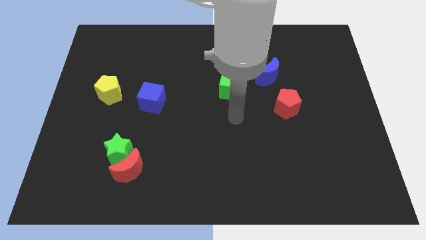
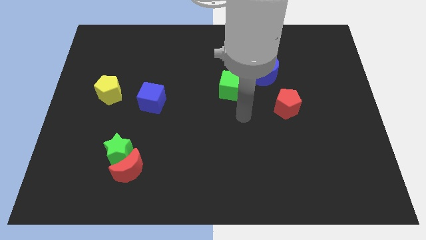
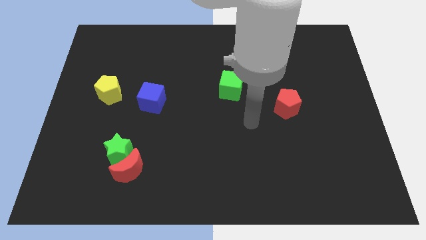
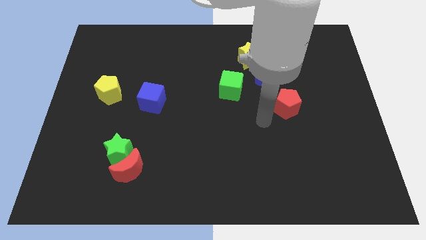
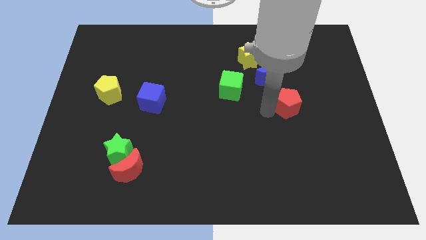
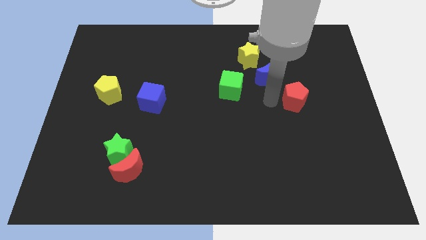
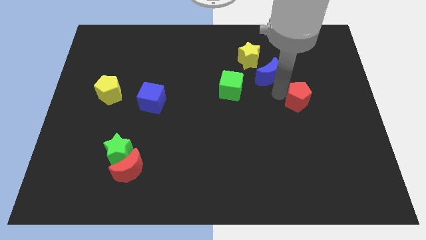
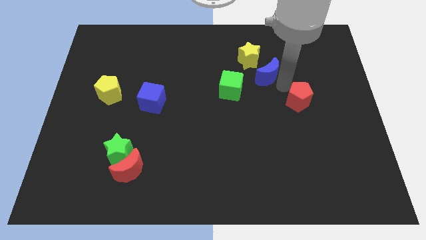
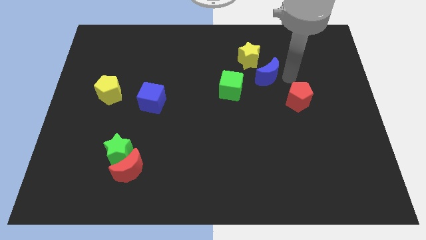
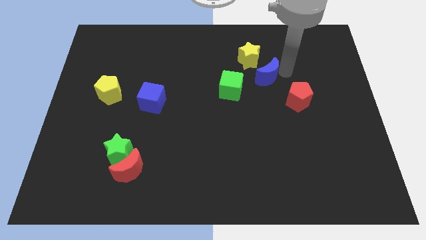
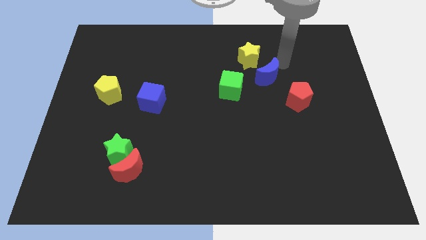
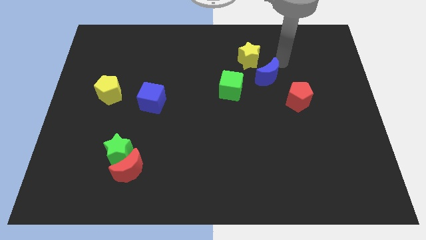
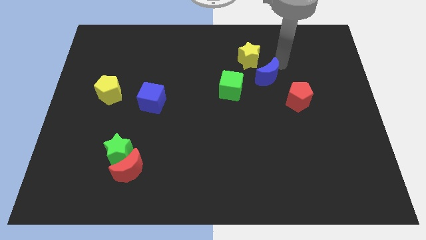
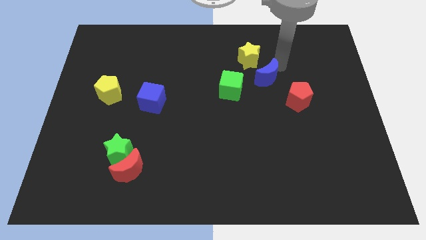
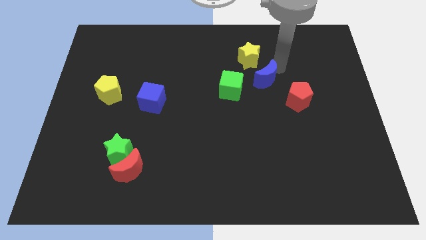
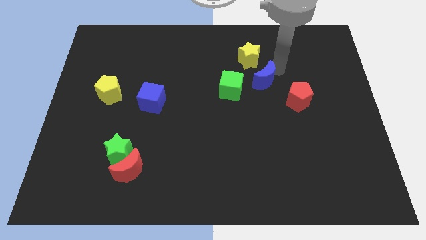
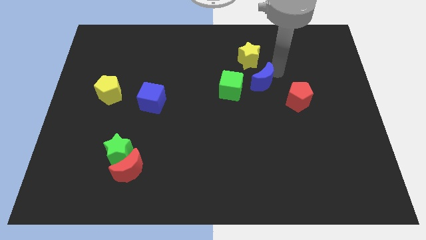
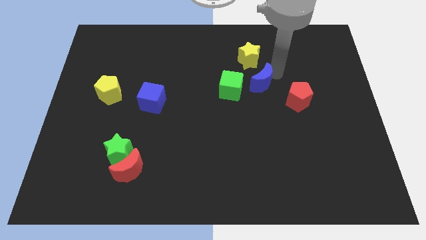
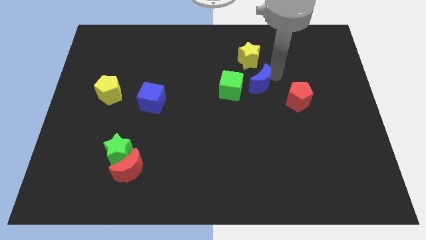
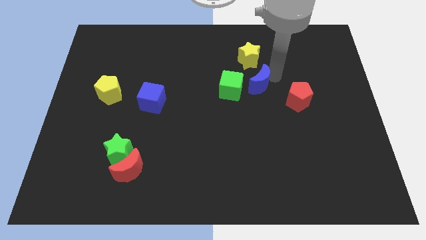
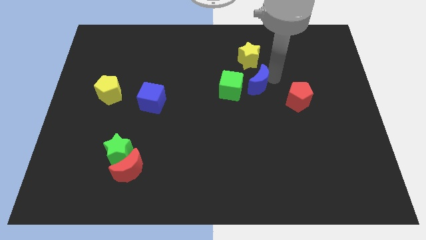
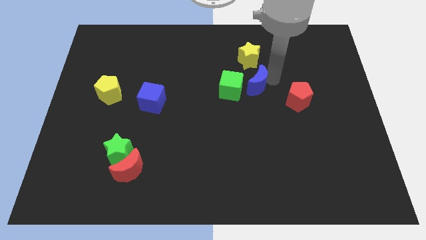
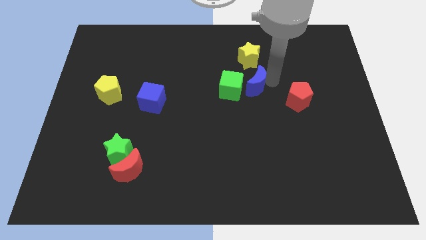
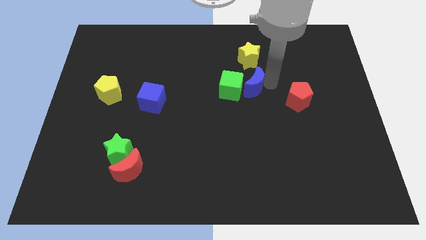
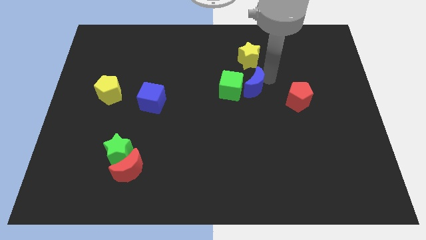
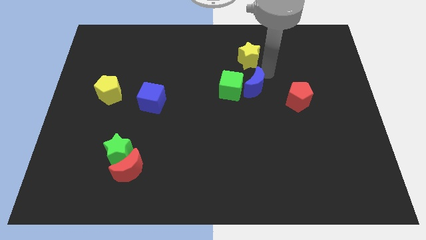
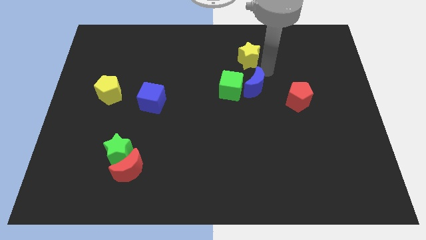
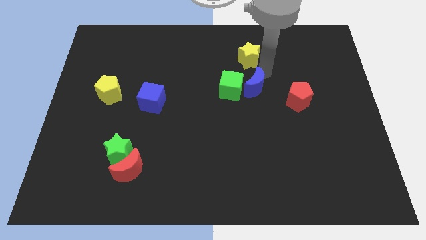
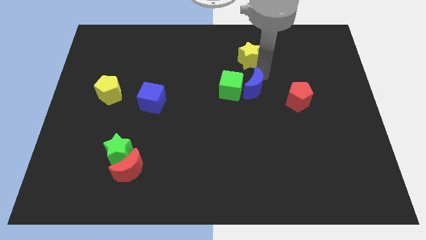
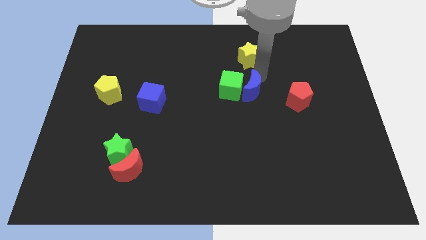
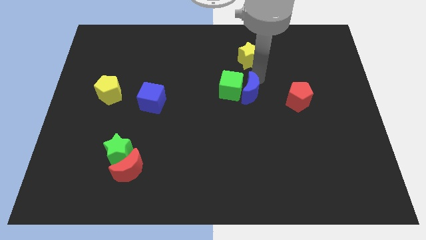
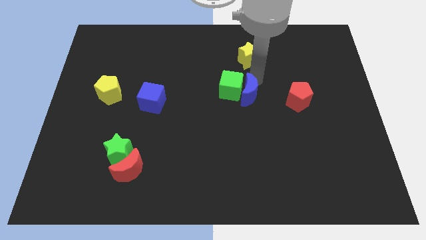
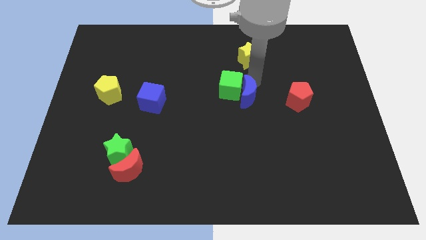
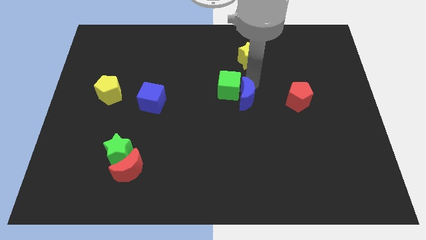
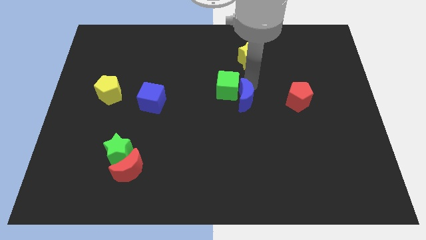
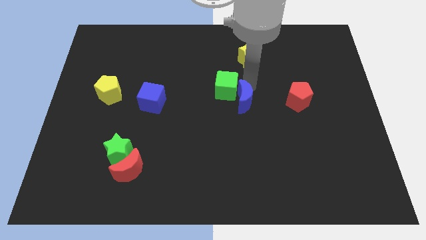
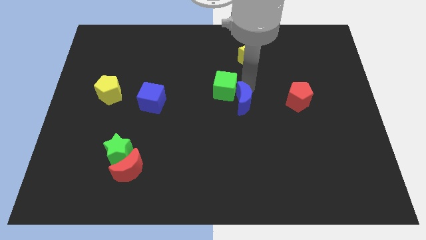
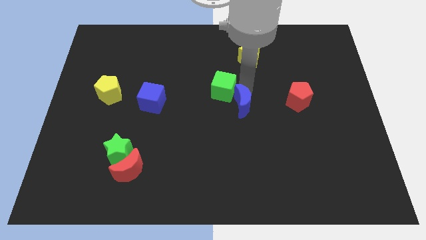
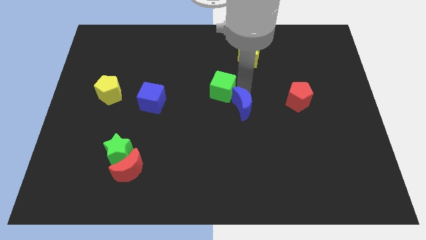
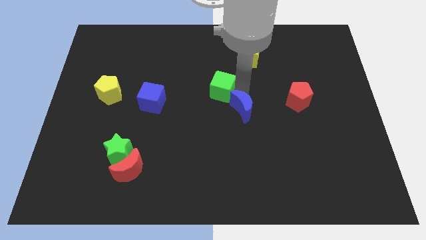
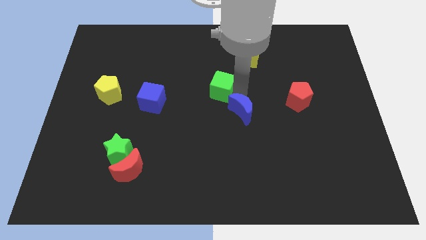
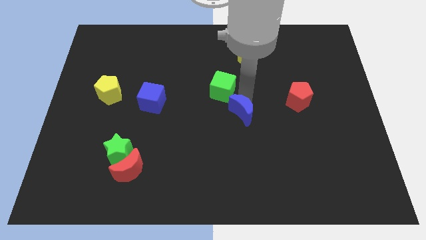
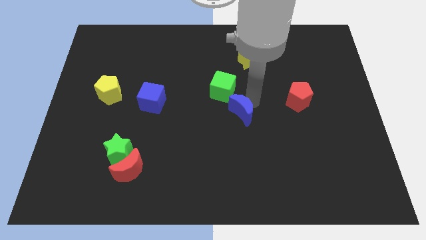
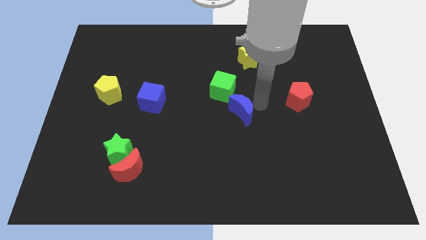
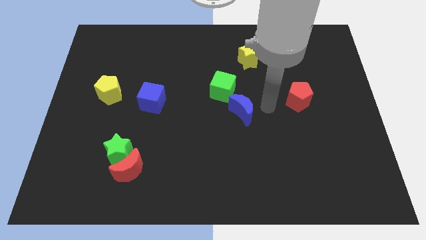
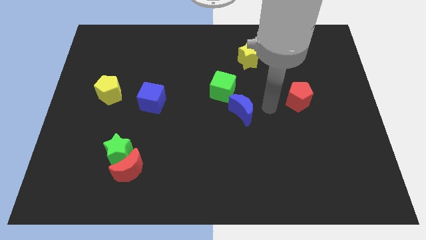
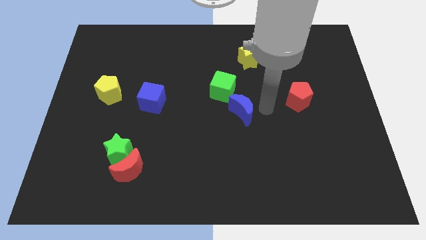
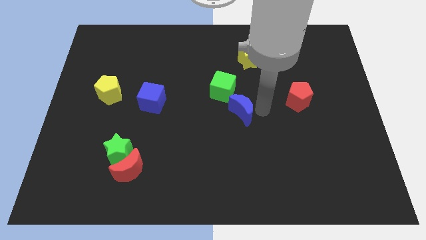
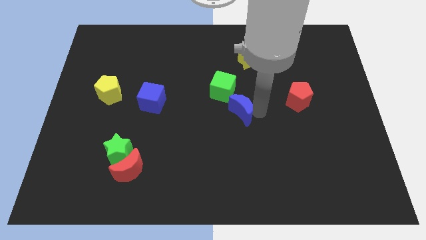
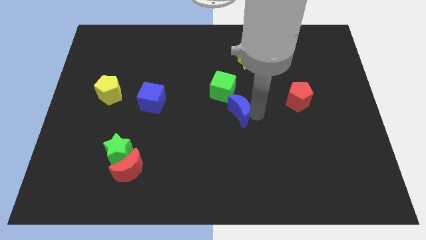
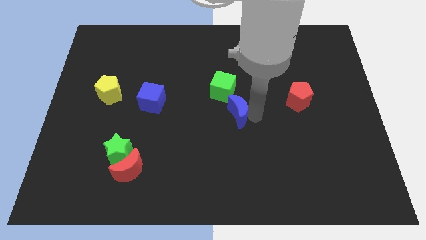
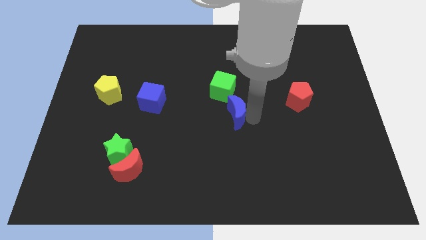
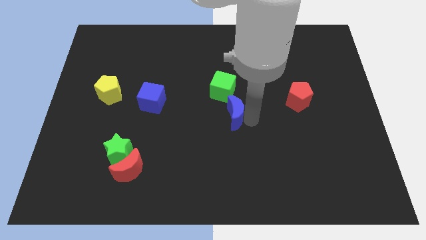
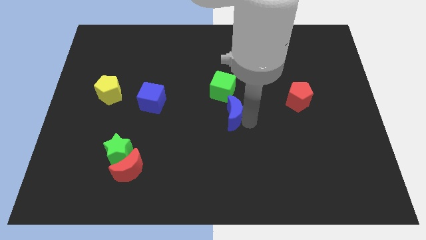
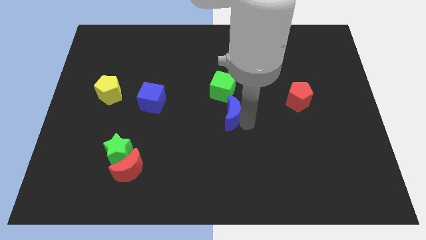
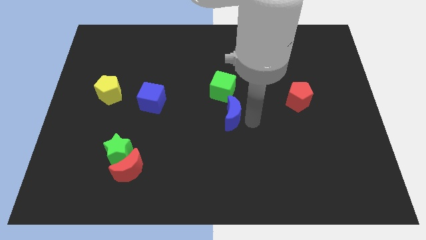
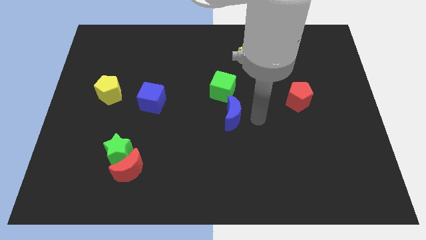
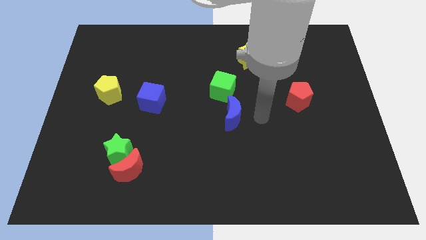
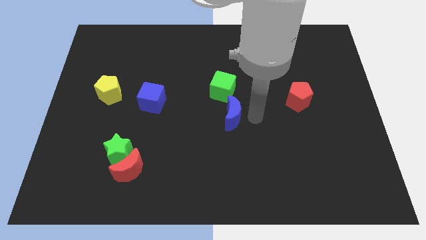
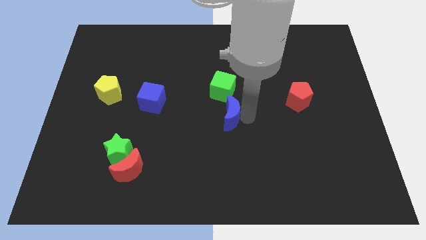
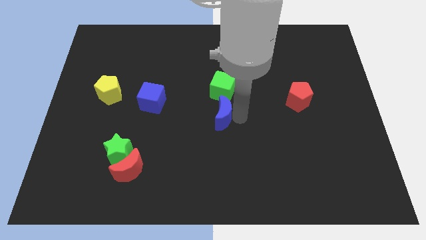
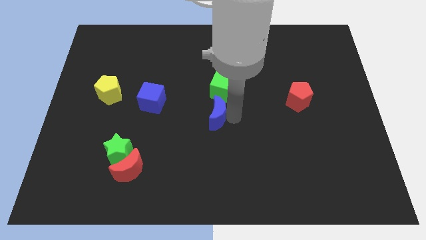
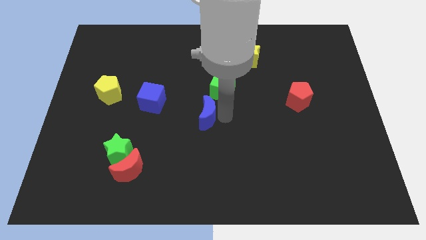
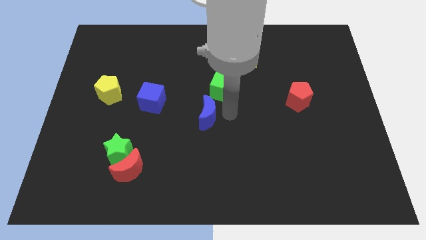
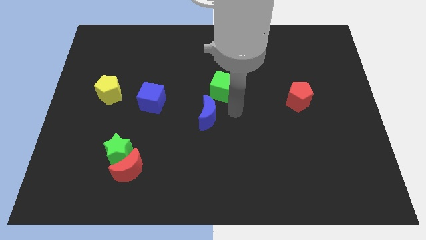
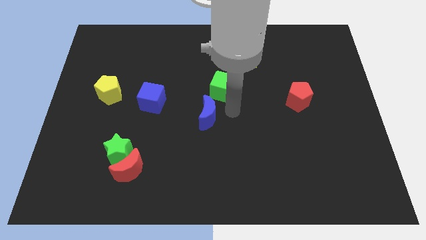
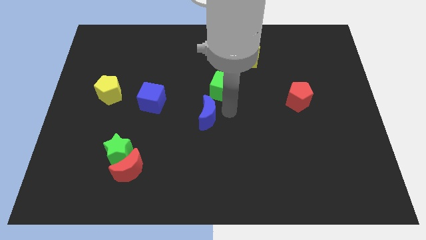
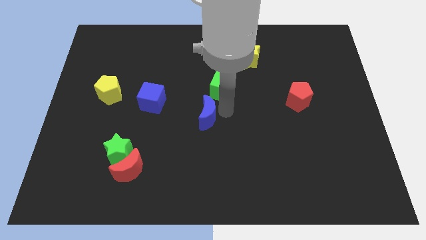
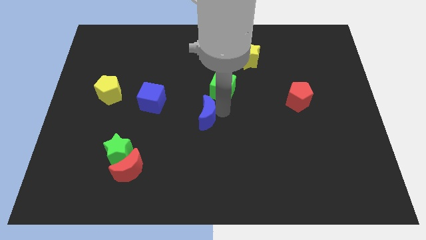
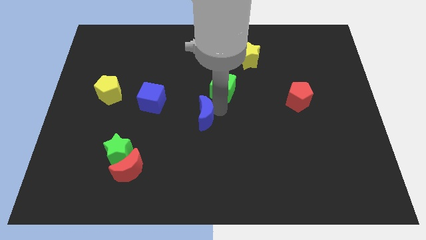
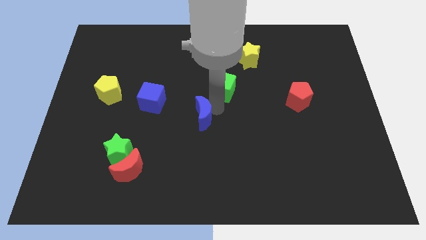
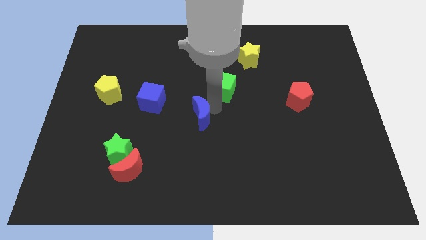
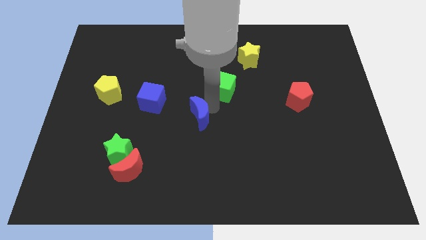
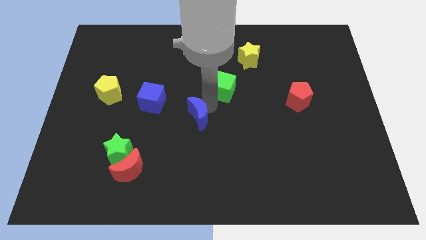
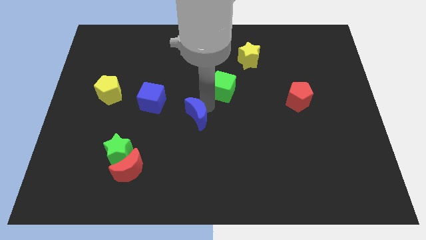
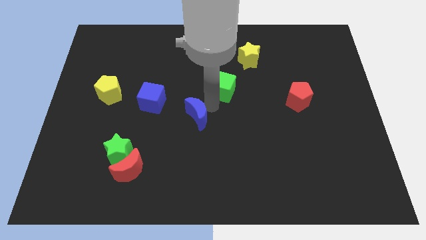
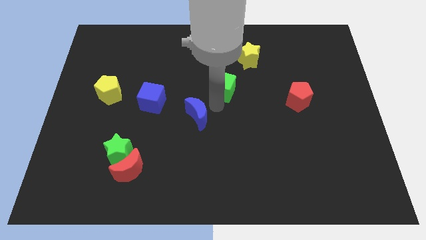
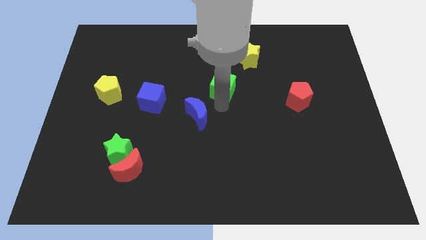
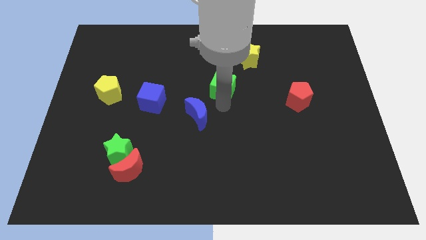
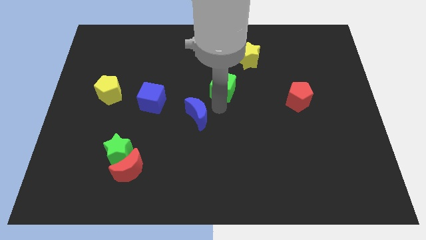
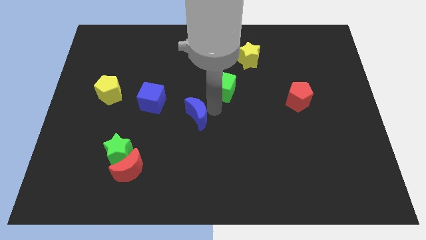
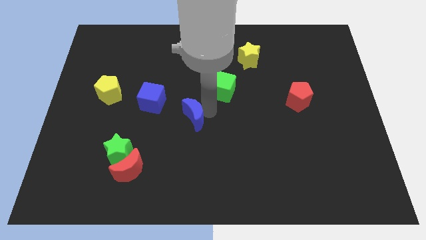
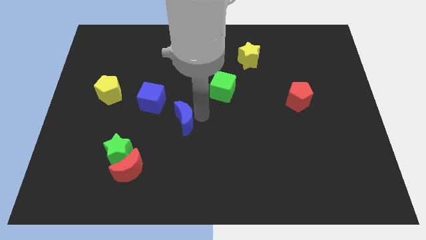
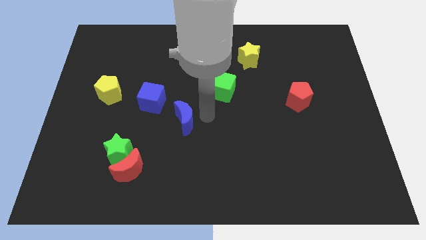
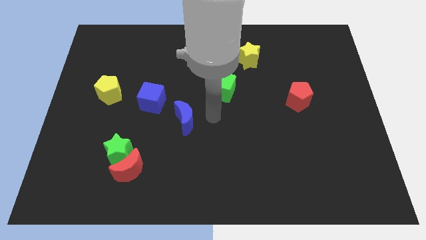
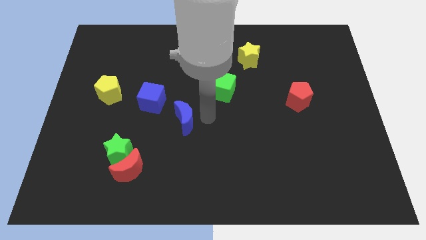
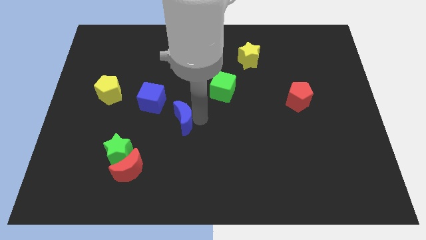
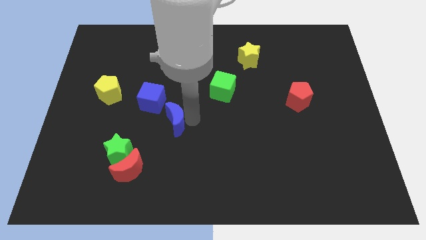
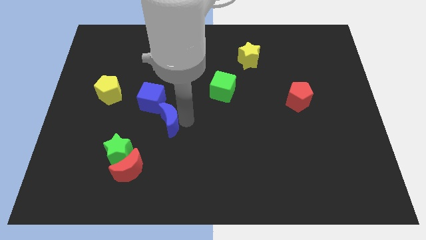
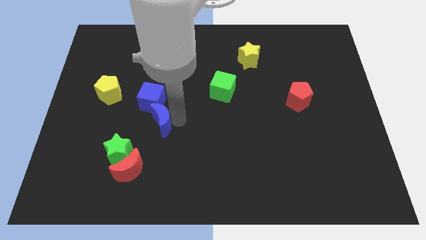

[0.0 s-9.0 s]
put the blue moon to the top right of the green star
